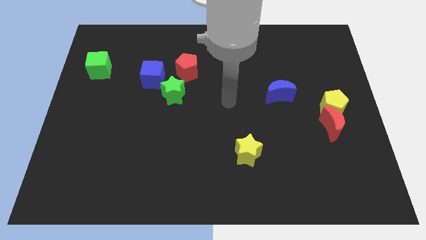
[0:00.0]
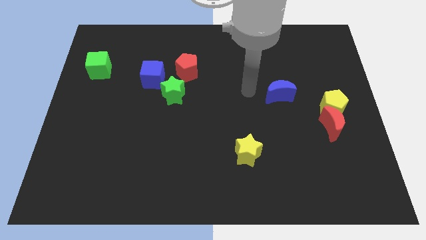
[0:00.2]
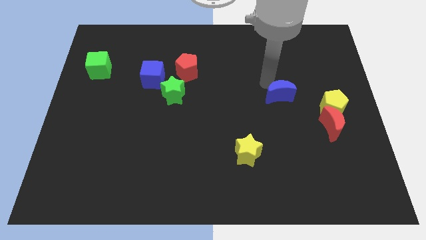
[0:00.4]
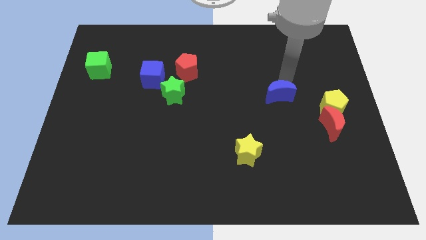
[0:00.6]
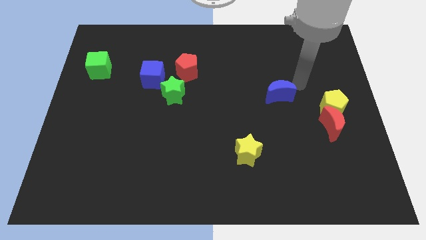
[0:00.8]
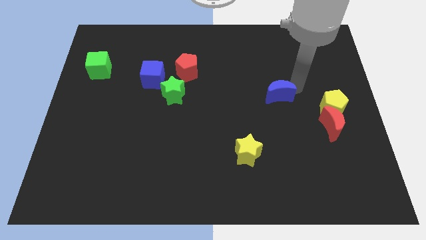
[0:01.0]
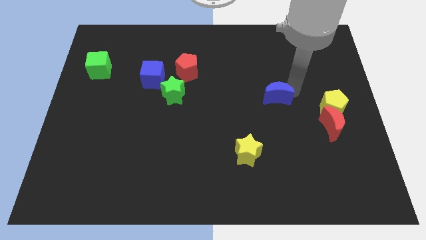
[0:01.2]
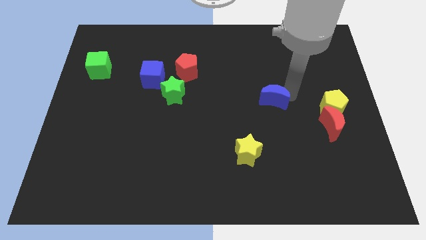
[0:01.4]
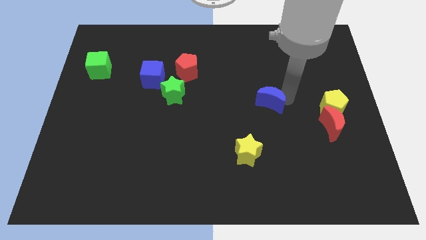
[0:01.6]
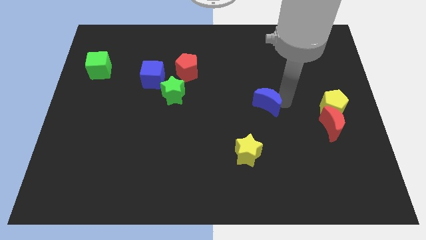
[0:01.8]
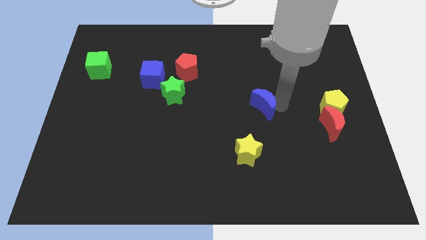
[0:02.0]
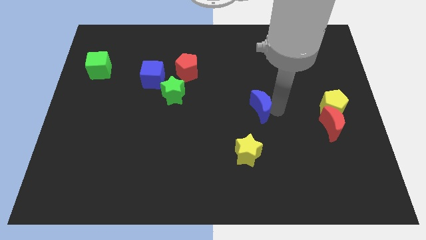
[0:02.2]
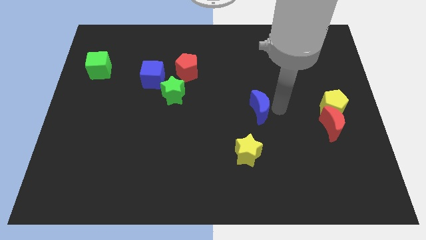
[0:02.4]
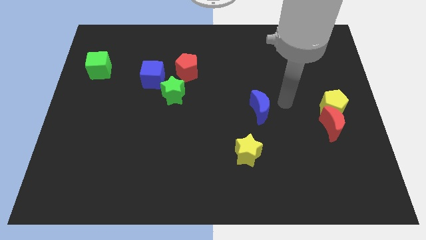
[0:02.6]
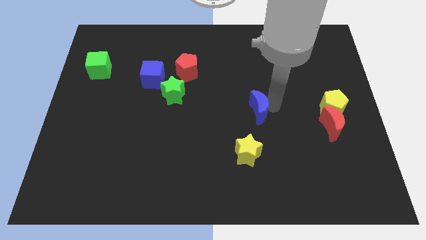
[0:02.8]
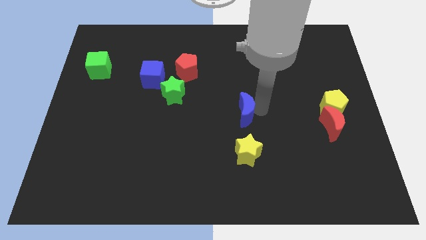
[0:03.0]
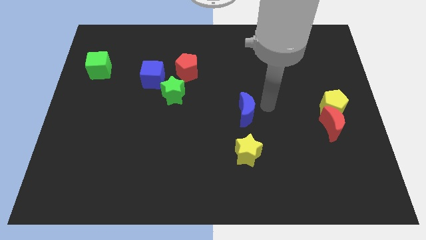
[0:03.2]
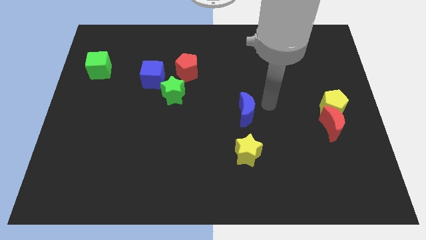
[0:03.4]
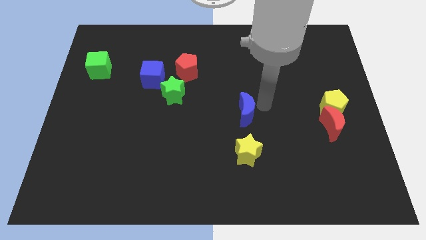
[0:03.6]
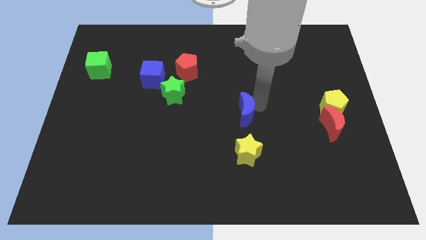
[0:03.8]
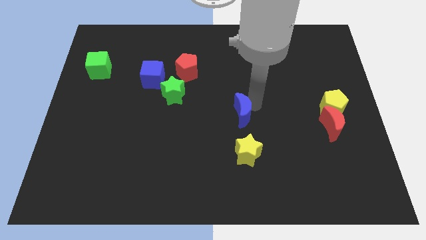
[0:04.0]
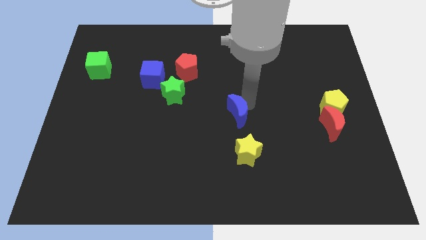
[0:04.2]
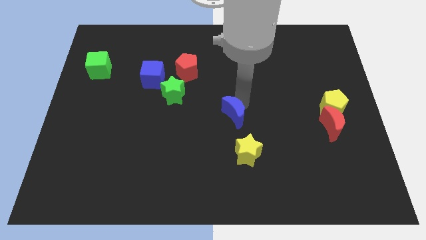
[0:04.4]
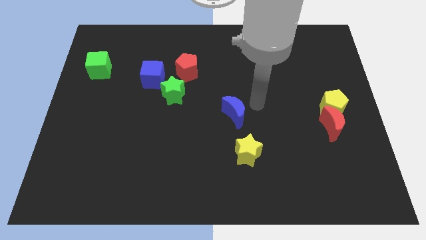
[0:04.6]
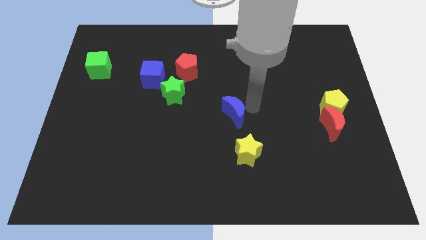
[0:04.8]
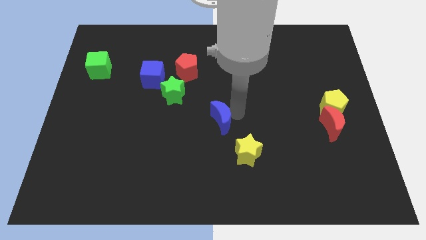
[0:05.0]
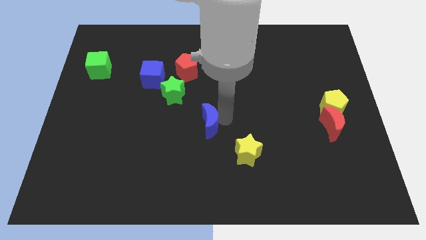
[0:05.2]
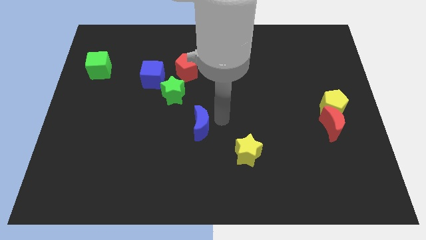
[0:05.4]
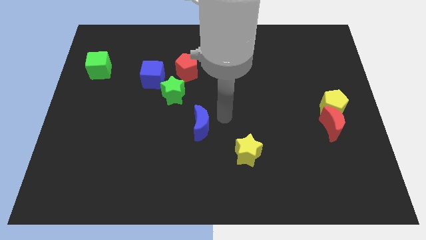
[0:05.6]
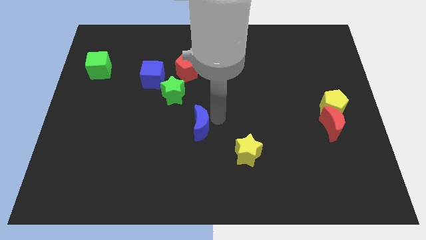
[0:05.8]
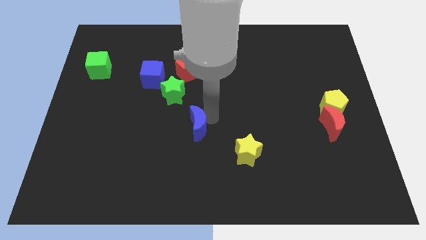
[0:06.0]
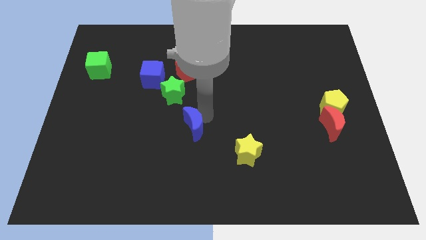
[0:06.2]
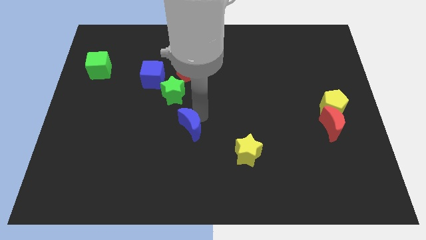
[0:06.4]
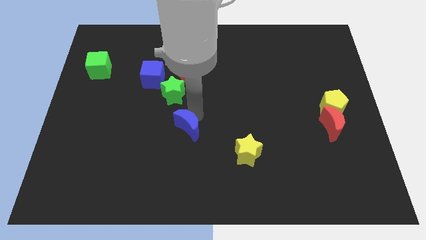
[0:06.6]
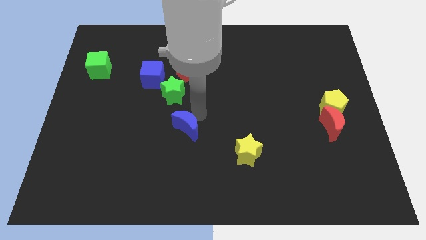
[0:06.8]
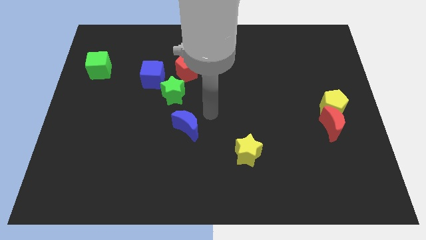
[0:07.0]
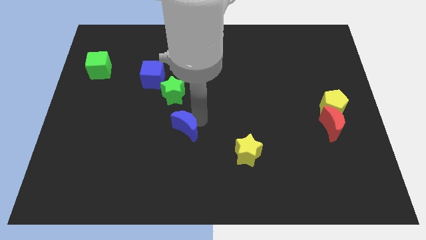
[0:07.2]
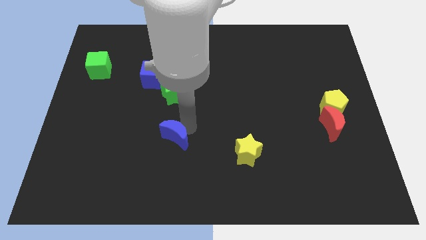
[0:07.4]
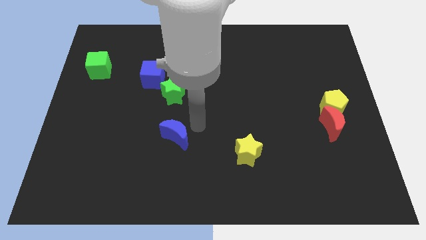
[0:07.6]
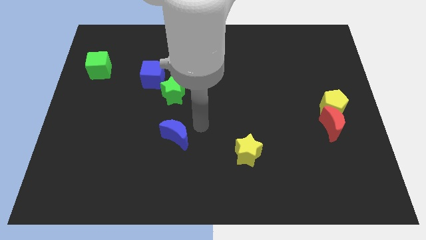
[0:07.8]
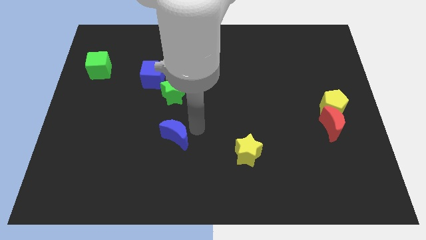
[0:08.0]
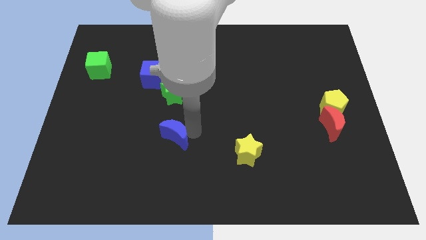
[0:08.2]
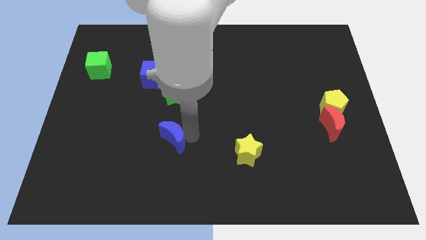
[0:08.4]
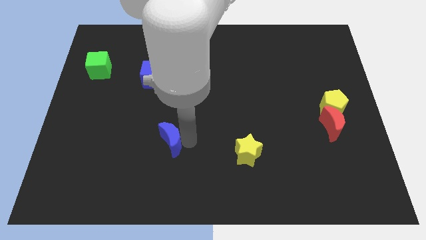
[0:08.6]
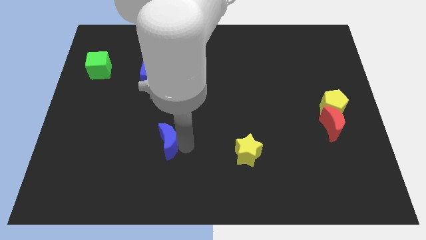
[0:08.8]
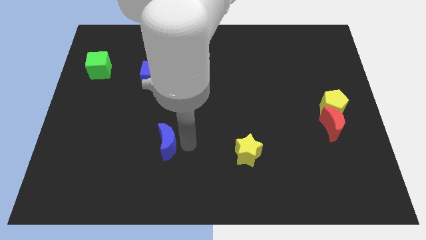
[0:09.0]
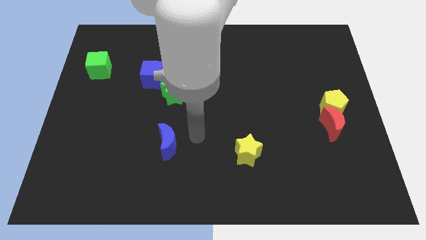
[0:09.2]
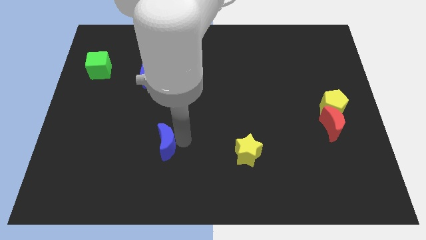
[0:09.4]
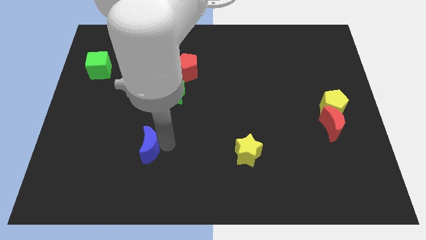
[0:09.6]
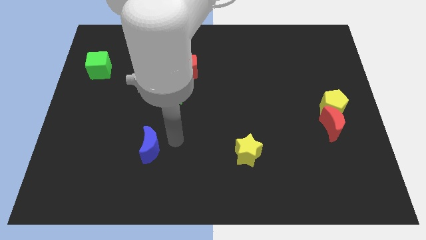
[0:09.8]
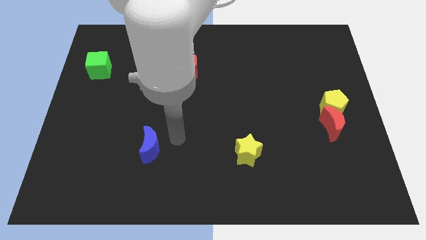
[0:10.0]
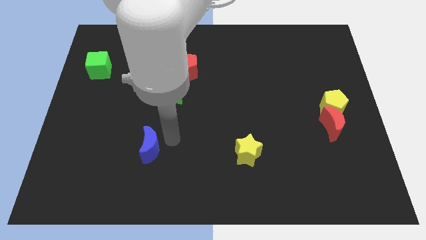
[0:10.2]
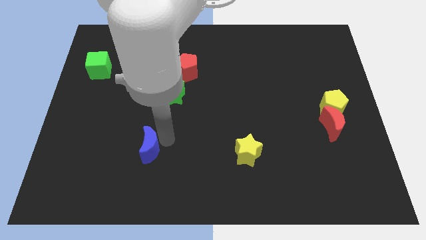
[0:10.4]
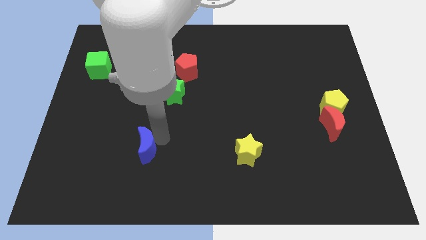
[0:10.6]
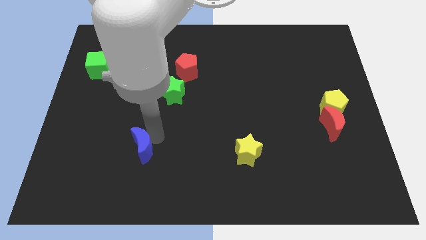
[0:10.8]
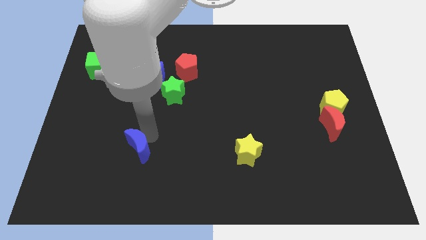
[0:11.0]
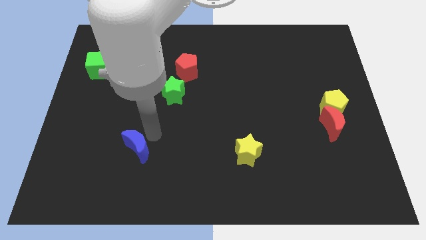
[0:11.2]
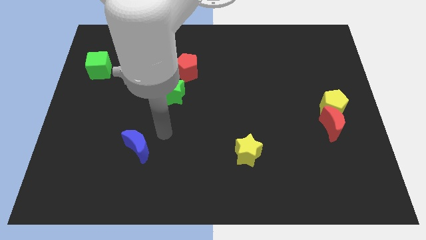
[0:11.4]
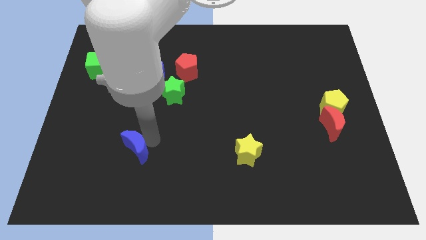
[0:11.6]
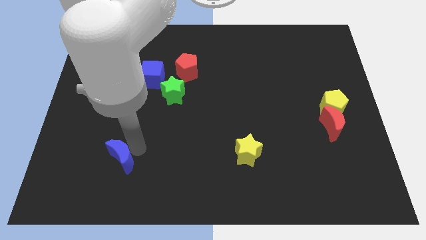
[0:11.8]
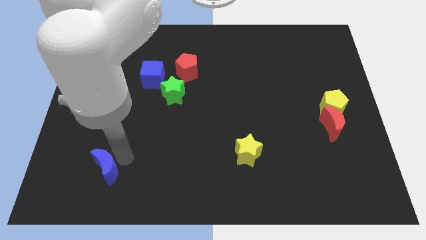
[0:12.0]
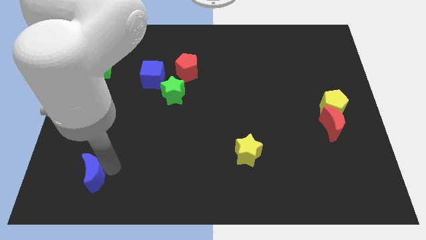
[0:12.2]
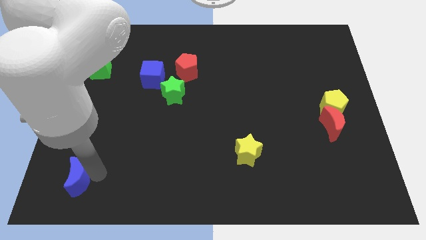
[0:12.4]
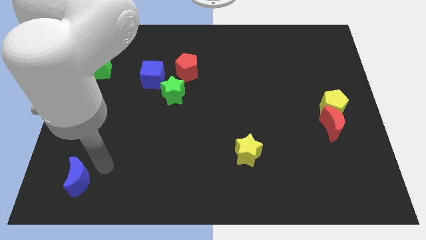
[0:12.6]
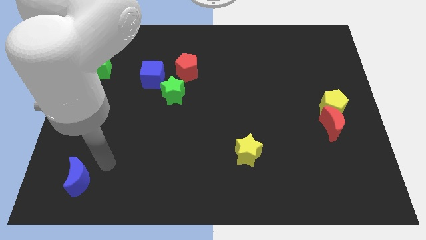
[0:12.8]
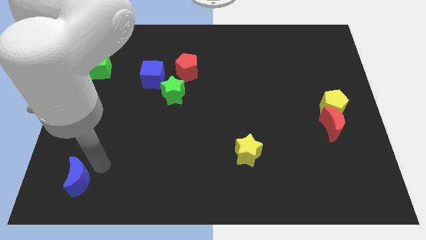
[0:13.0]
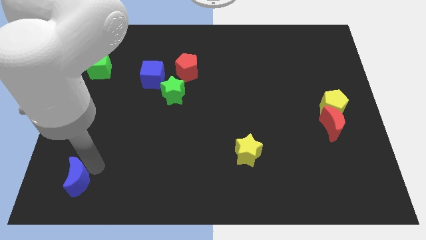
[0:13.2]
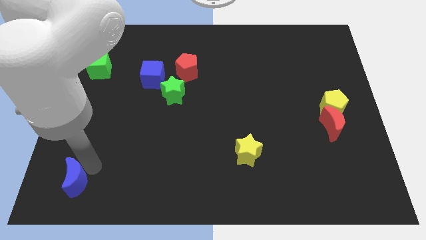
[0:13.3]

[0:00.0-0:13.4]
push the blue moon to the bottom left of the board

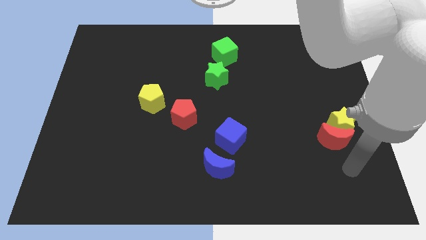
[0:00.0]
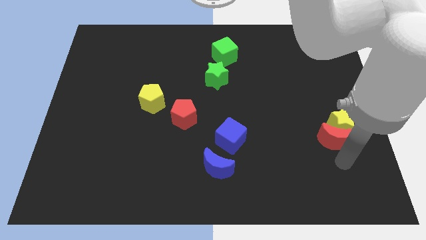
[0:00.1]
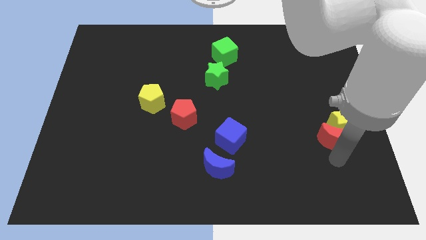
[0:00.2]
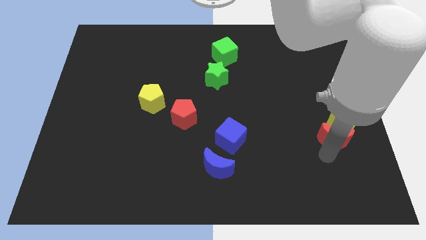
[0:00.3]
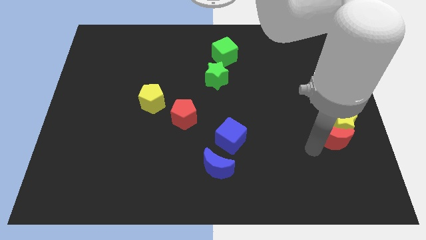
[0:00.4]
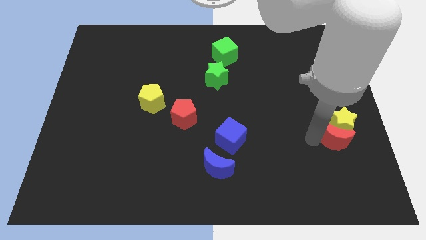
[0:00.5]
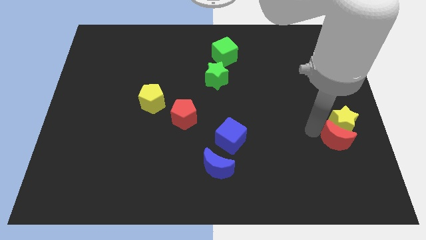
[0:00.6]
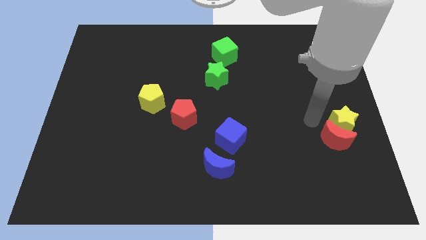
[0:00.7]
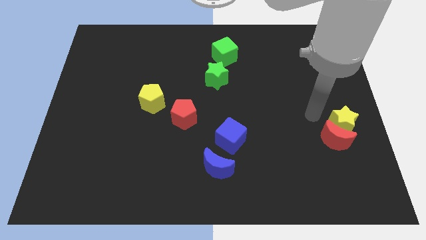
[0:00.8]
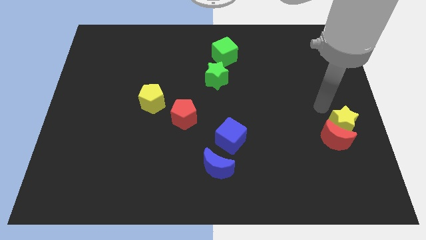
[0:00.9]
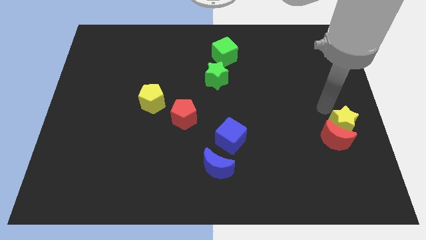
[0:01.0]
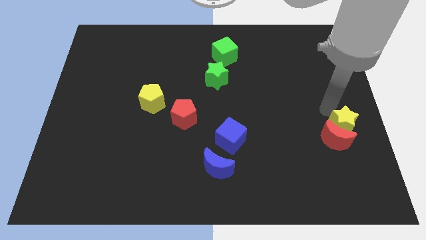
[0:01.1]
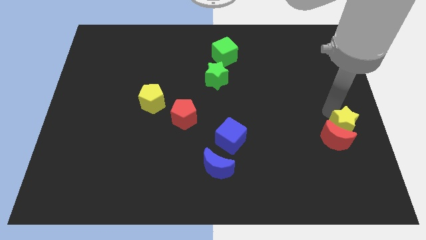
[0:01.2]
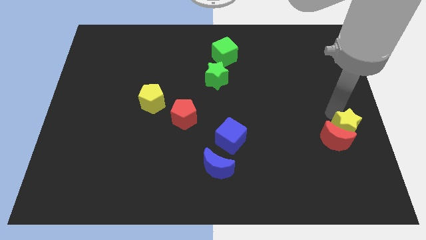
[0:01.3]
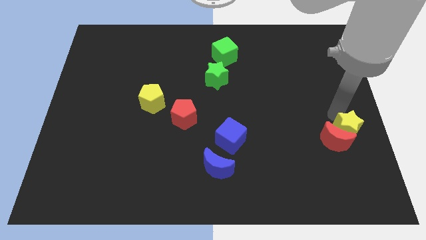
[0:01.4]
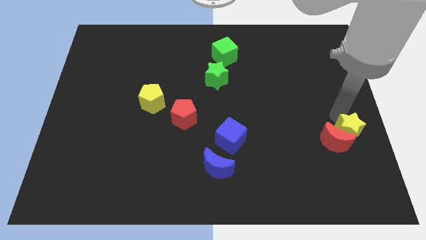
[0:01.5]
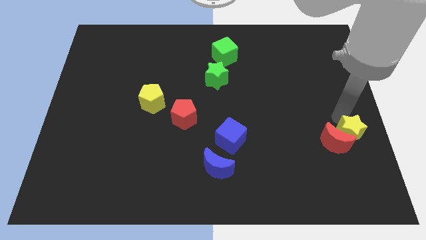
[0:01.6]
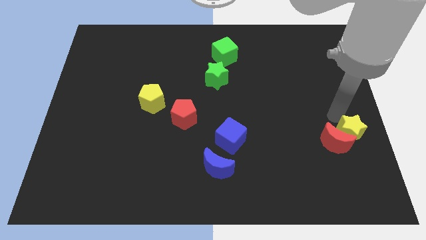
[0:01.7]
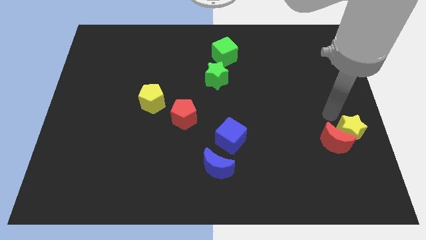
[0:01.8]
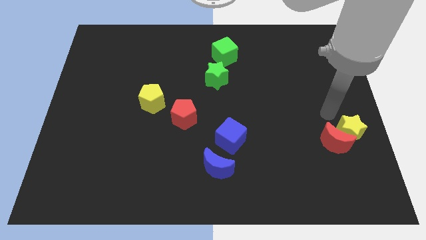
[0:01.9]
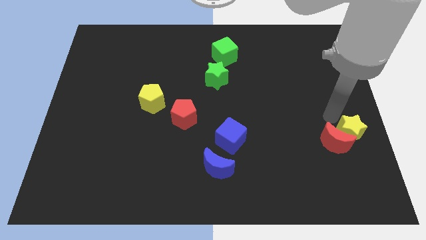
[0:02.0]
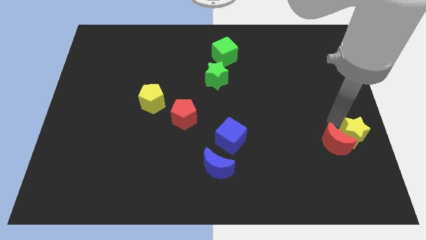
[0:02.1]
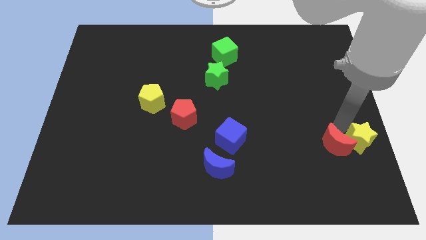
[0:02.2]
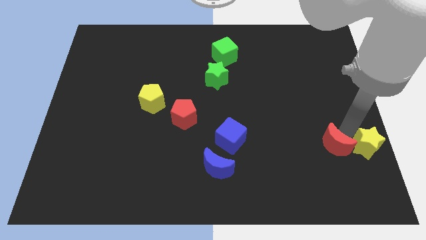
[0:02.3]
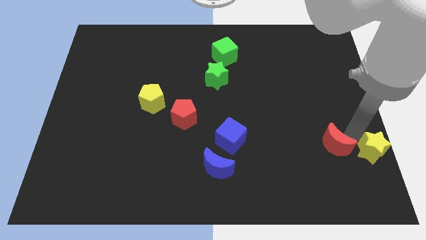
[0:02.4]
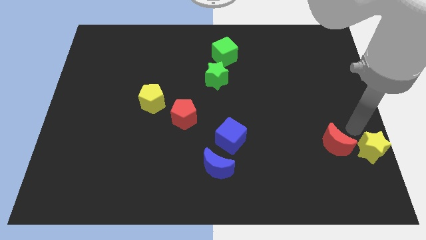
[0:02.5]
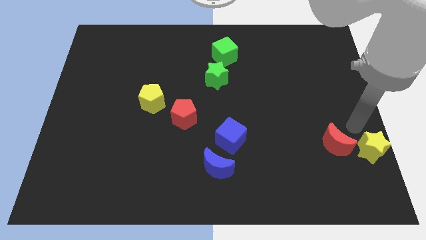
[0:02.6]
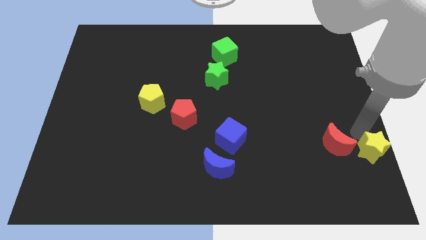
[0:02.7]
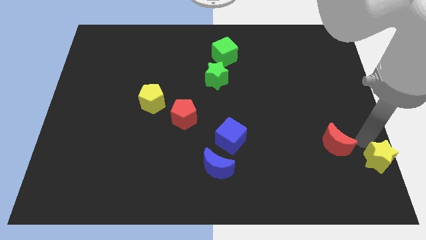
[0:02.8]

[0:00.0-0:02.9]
slide the yellow star to the bottom right corner
